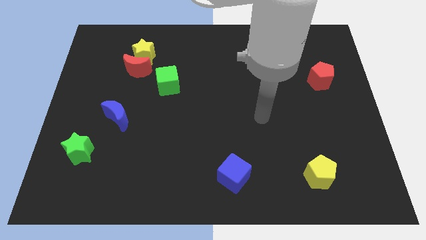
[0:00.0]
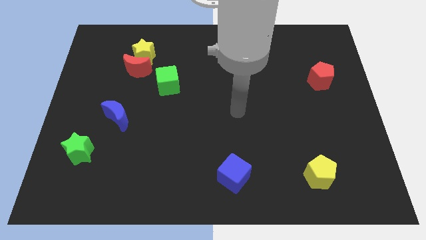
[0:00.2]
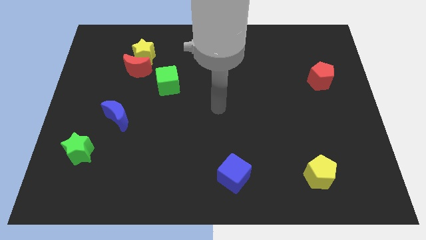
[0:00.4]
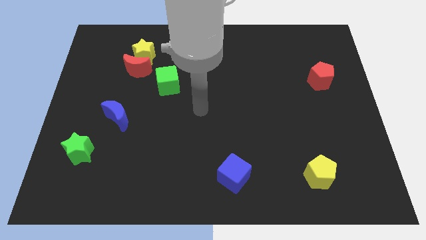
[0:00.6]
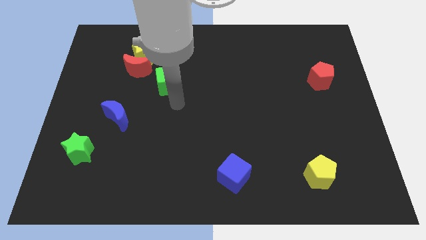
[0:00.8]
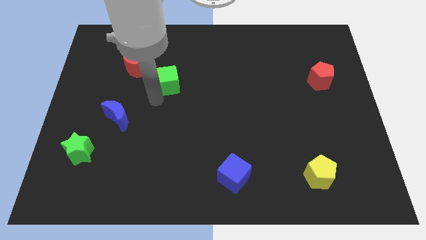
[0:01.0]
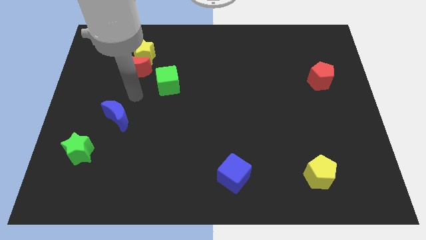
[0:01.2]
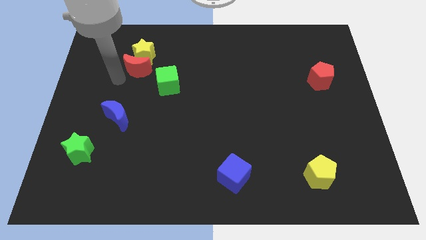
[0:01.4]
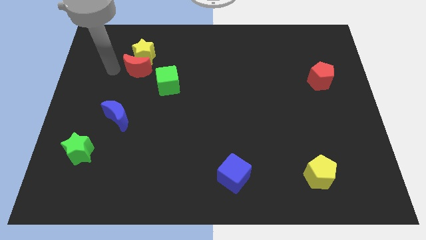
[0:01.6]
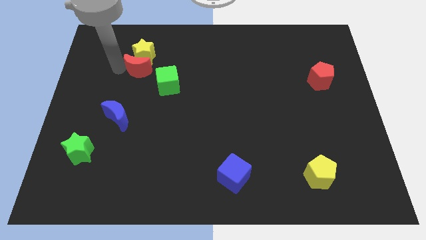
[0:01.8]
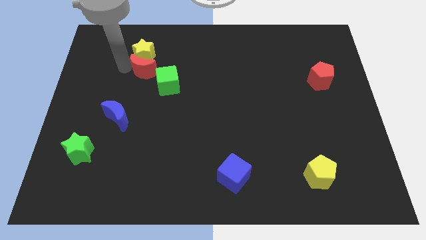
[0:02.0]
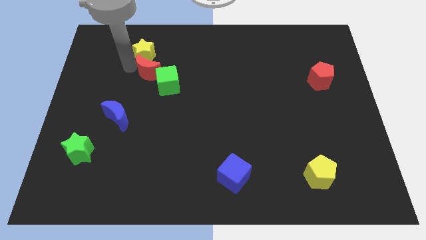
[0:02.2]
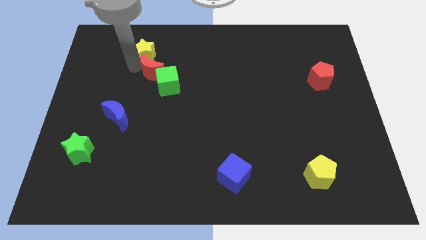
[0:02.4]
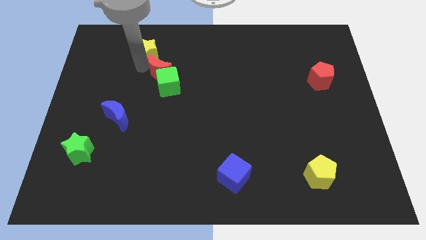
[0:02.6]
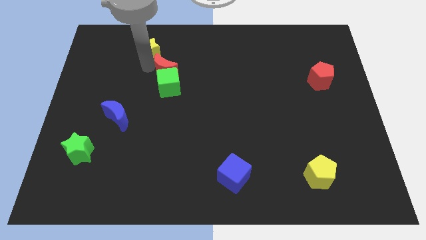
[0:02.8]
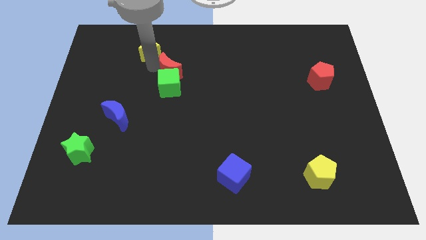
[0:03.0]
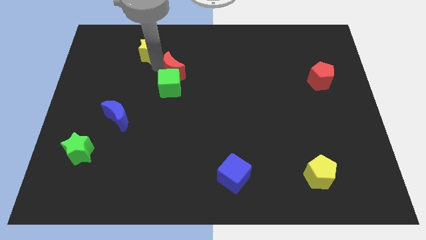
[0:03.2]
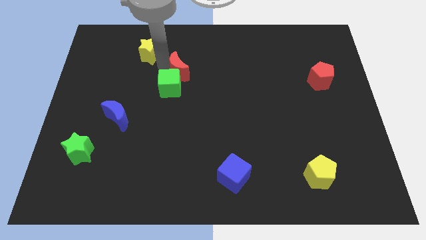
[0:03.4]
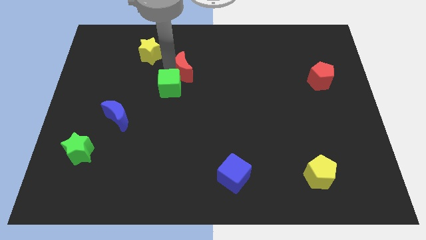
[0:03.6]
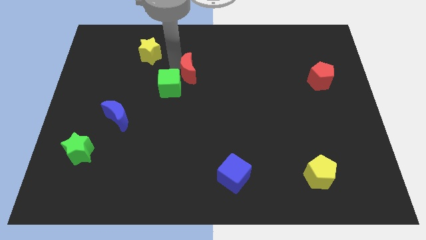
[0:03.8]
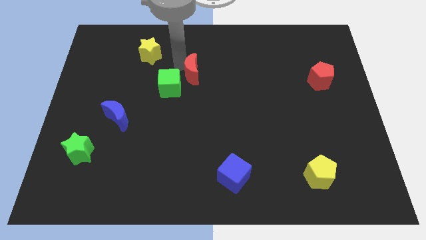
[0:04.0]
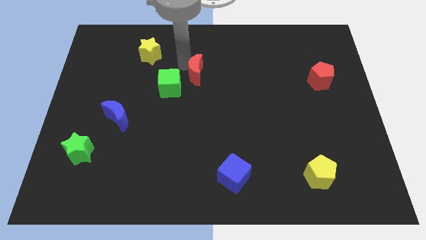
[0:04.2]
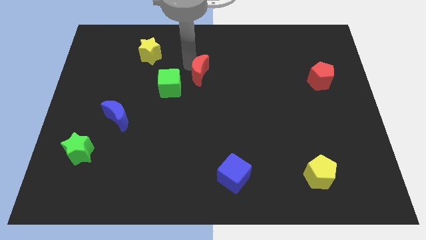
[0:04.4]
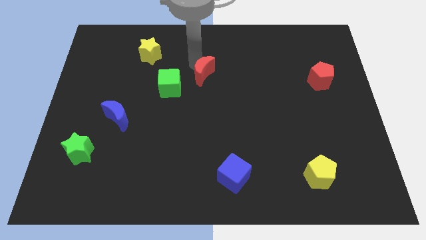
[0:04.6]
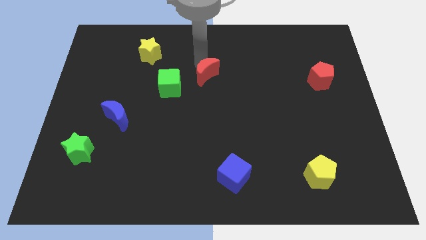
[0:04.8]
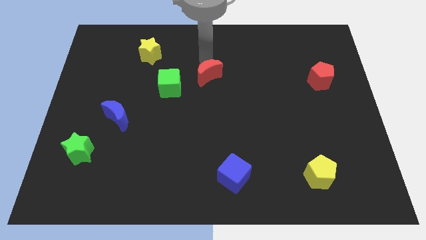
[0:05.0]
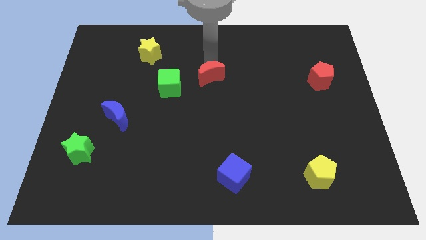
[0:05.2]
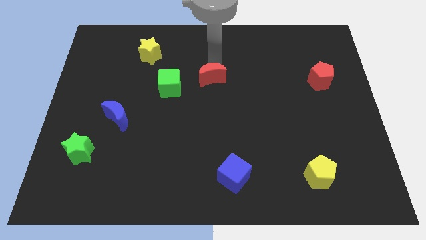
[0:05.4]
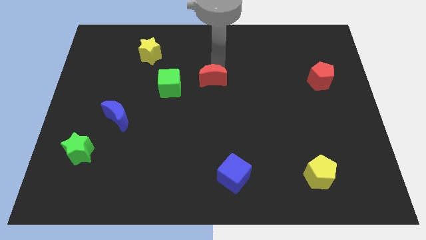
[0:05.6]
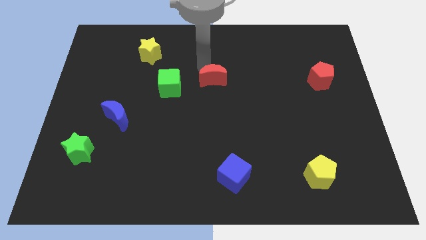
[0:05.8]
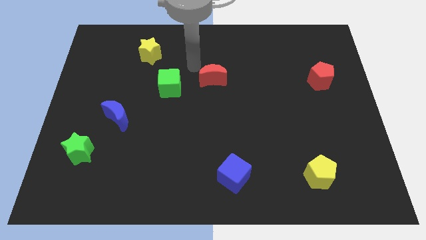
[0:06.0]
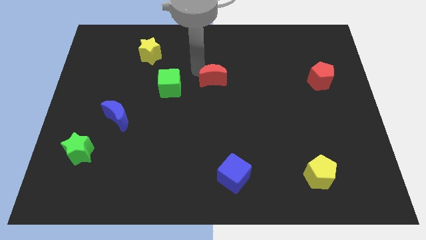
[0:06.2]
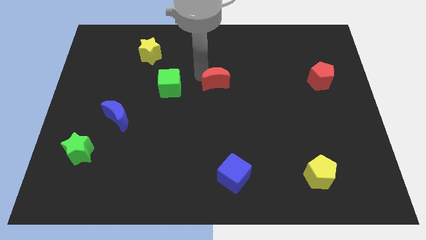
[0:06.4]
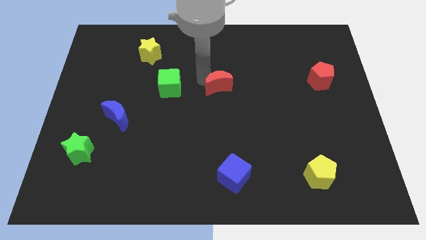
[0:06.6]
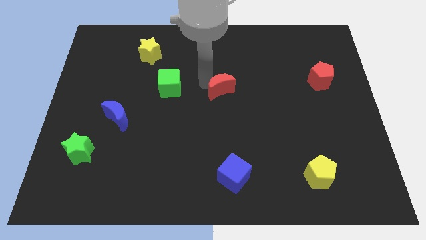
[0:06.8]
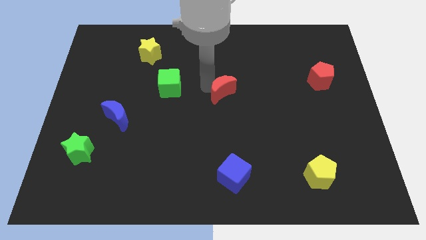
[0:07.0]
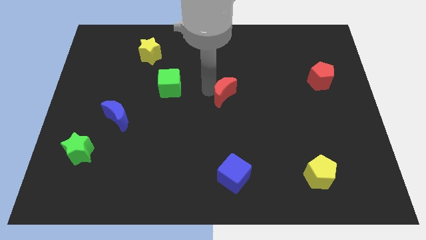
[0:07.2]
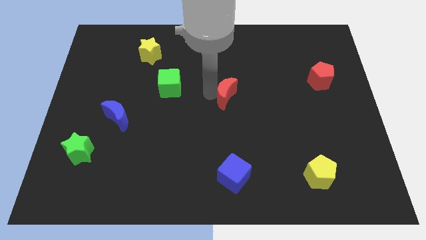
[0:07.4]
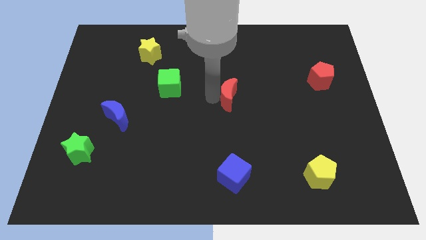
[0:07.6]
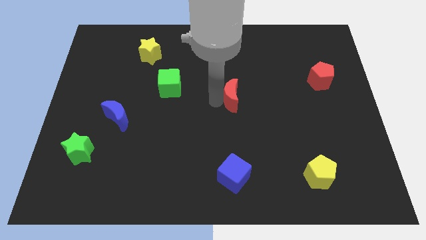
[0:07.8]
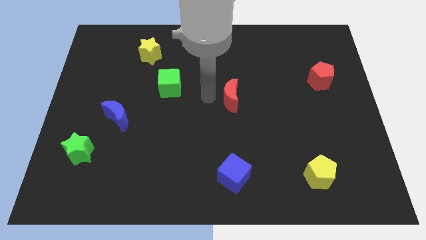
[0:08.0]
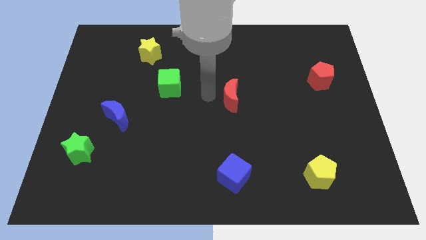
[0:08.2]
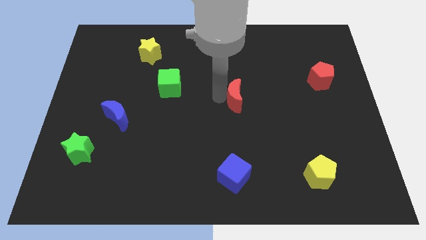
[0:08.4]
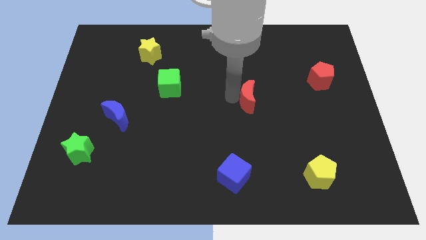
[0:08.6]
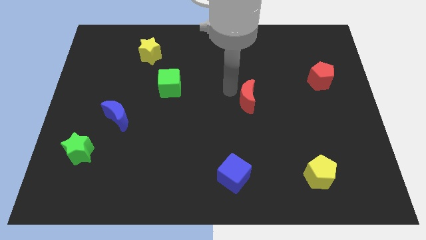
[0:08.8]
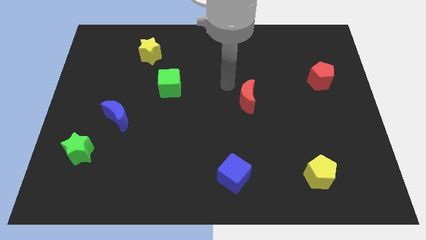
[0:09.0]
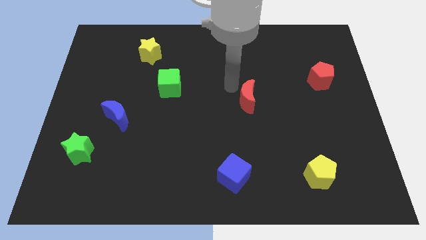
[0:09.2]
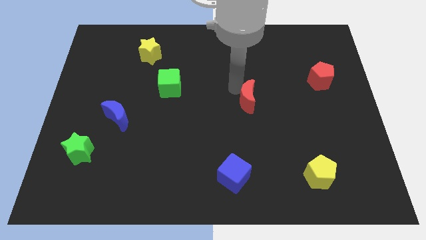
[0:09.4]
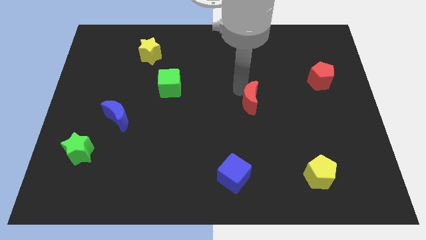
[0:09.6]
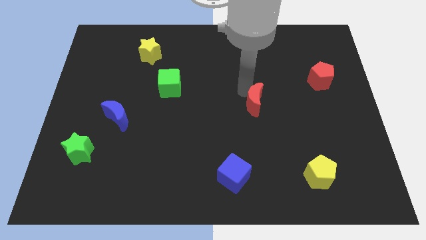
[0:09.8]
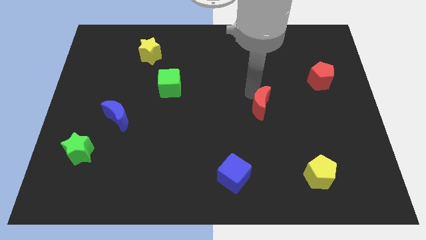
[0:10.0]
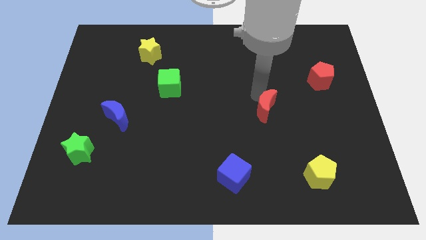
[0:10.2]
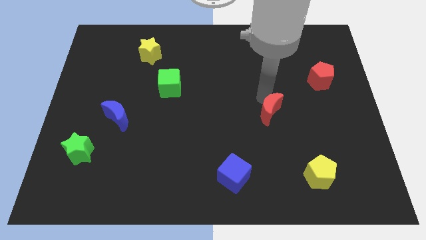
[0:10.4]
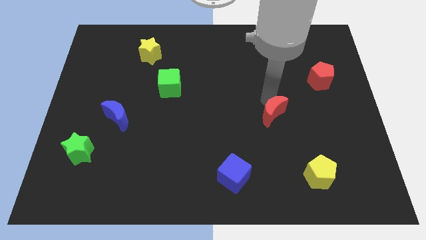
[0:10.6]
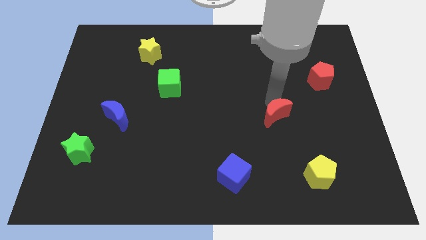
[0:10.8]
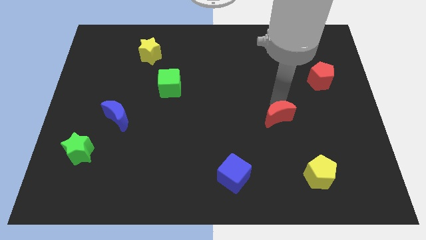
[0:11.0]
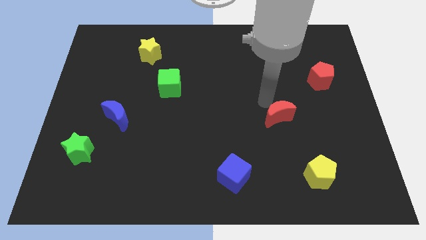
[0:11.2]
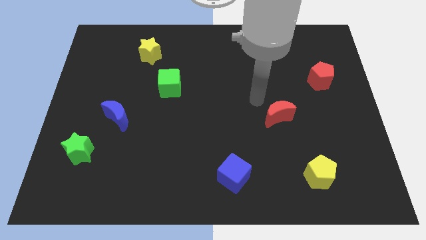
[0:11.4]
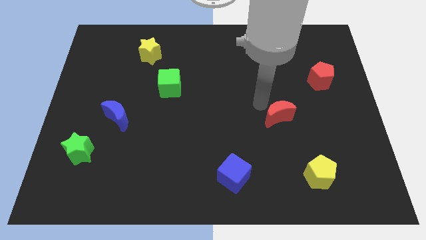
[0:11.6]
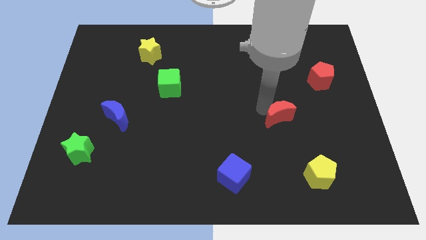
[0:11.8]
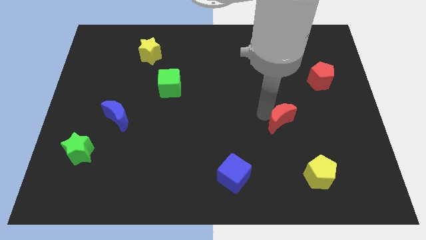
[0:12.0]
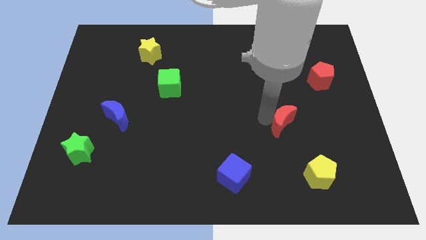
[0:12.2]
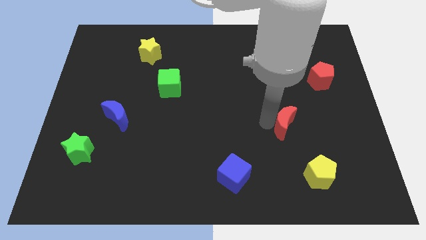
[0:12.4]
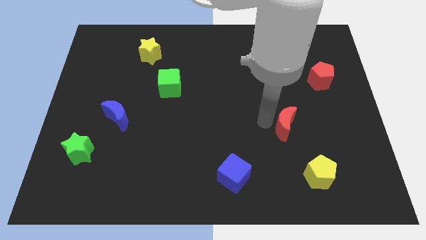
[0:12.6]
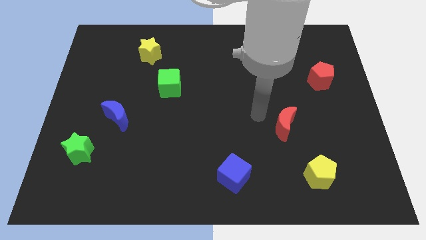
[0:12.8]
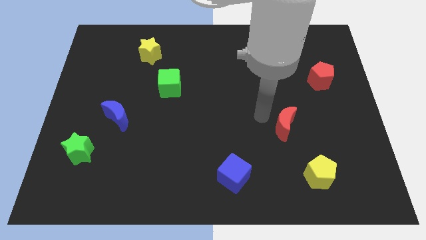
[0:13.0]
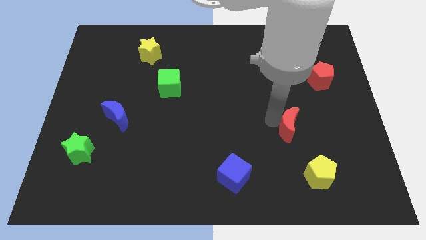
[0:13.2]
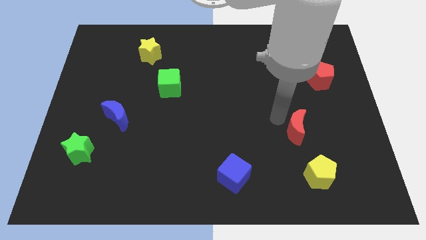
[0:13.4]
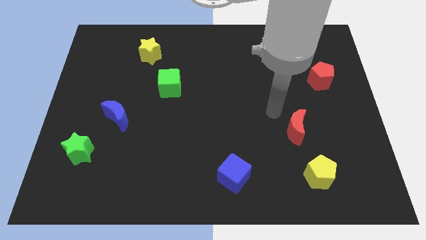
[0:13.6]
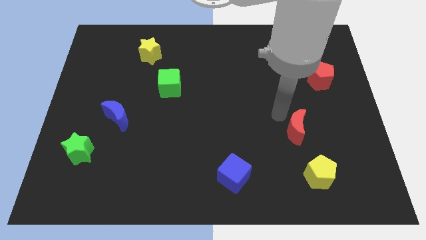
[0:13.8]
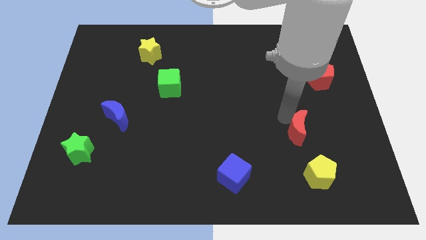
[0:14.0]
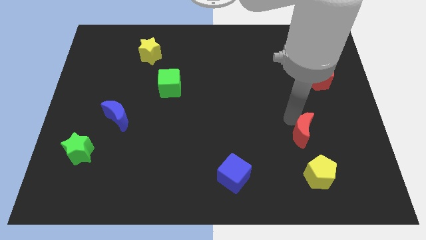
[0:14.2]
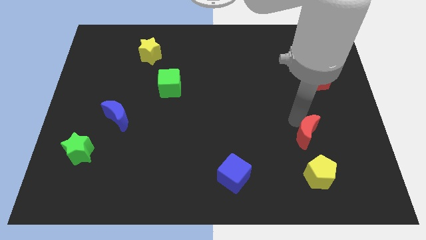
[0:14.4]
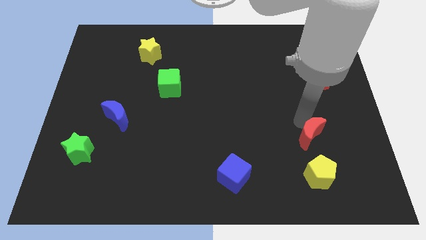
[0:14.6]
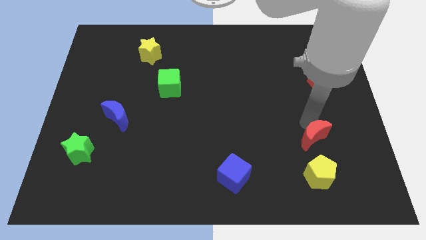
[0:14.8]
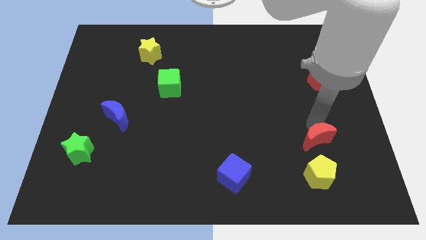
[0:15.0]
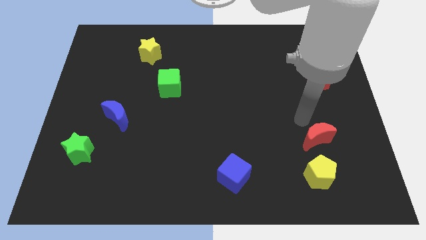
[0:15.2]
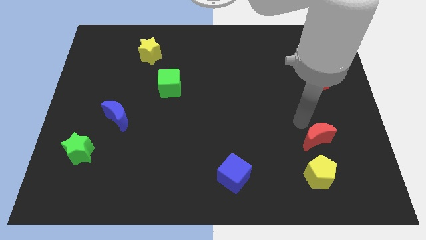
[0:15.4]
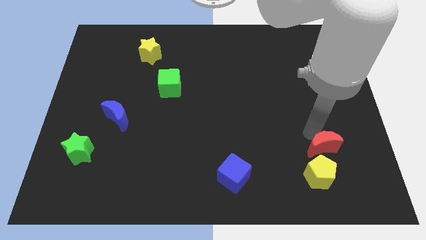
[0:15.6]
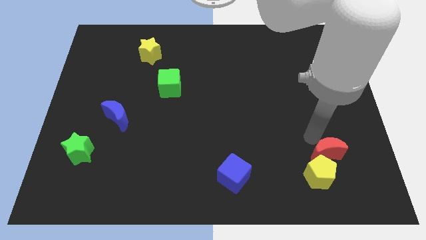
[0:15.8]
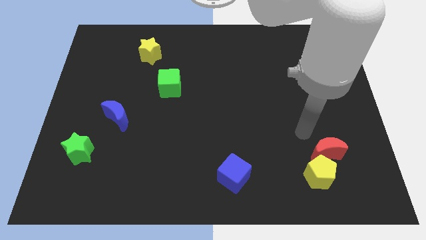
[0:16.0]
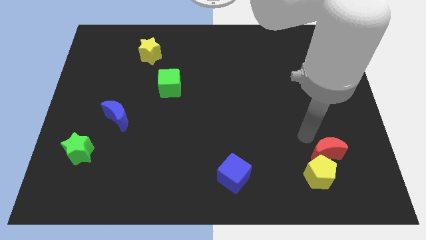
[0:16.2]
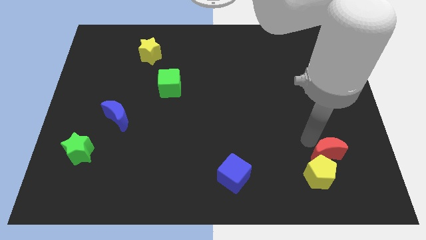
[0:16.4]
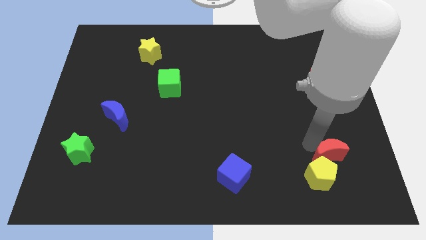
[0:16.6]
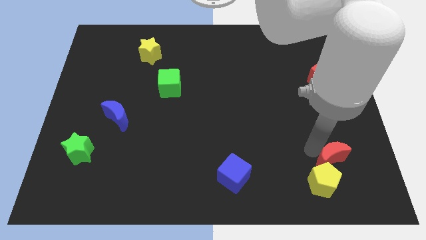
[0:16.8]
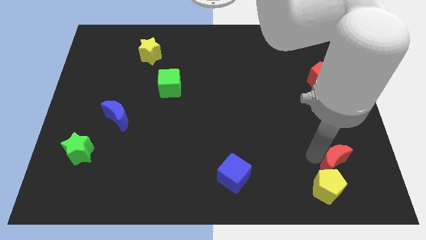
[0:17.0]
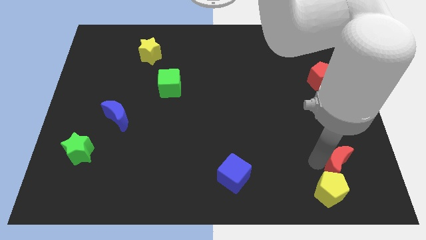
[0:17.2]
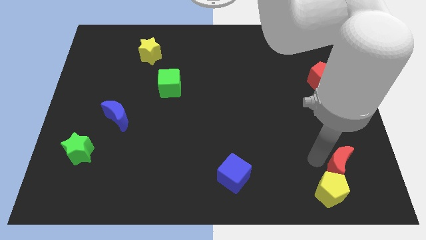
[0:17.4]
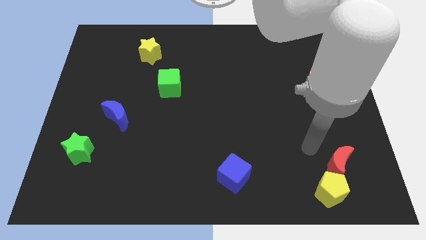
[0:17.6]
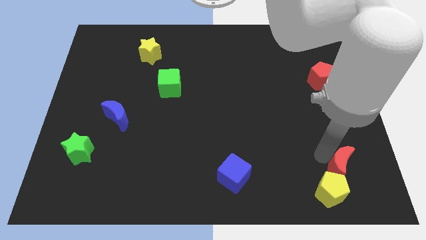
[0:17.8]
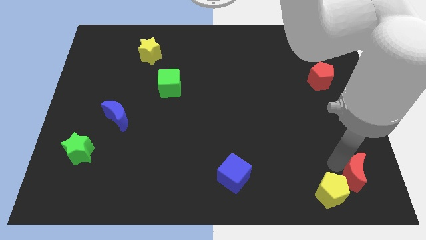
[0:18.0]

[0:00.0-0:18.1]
slide the red moon to the bottom right of the board
